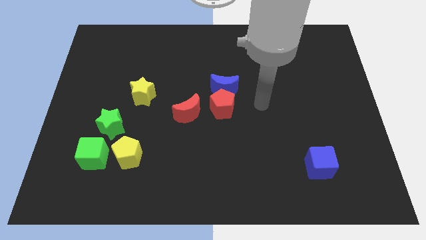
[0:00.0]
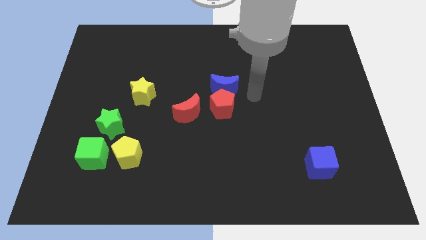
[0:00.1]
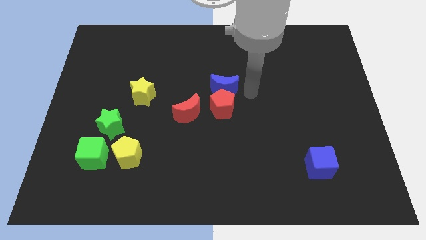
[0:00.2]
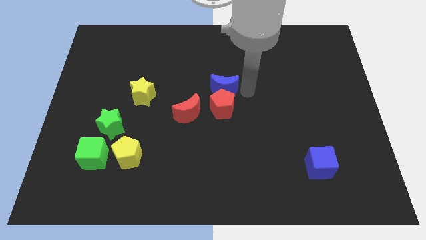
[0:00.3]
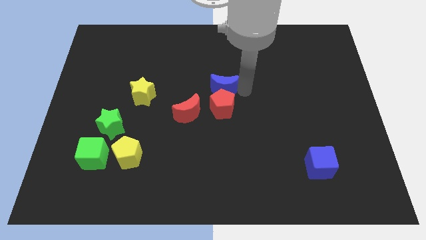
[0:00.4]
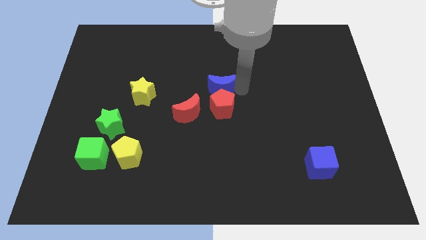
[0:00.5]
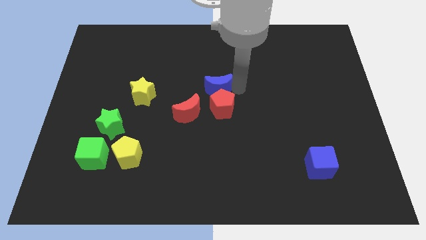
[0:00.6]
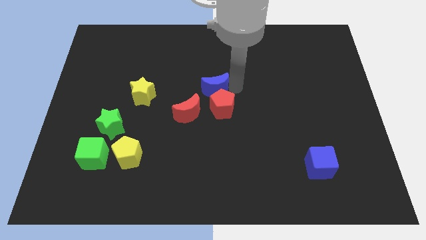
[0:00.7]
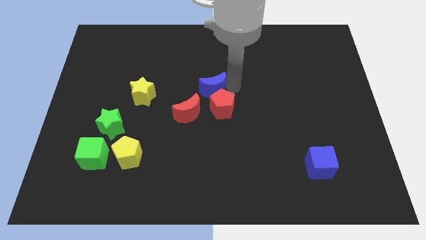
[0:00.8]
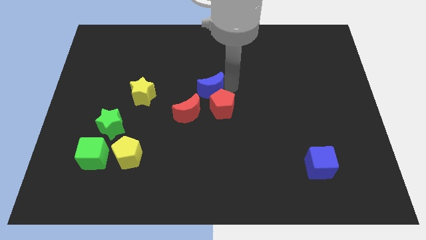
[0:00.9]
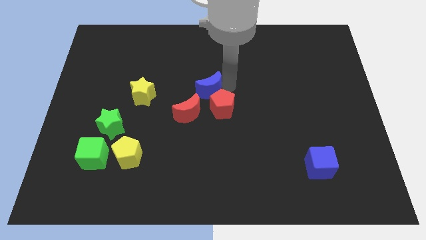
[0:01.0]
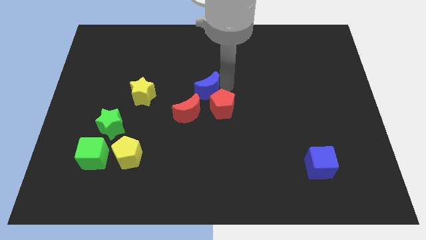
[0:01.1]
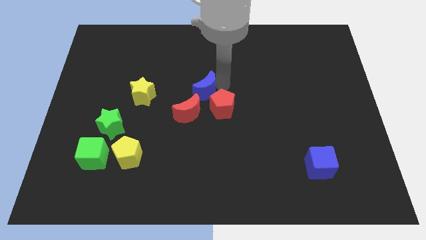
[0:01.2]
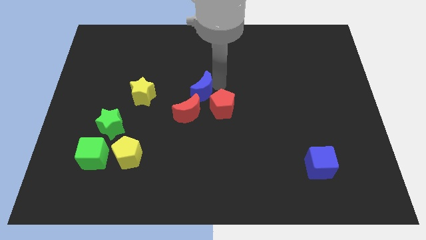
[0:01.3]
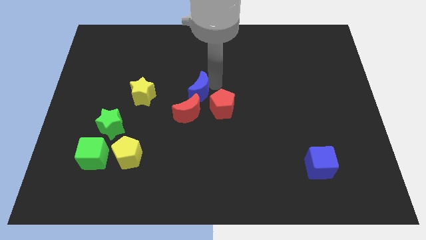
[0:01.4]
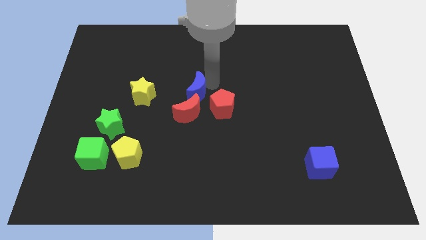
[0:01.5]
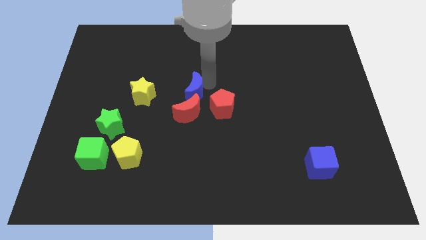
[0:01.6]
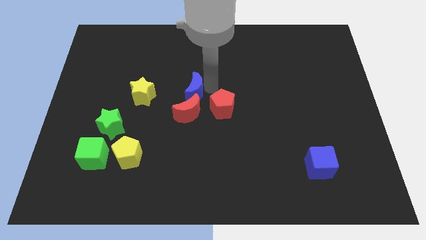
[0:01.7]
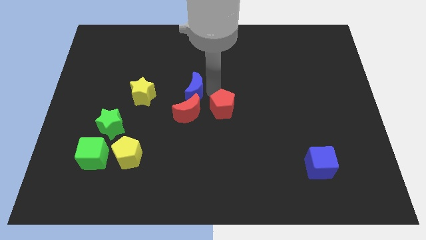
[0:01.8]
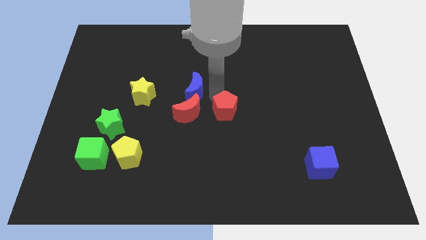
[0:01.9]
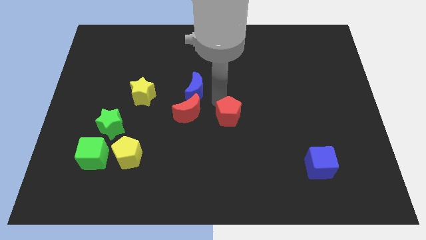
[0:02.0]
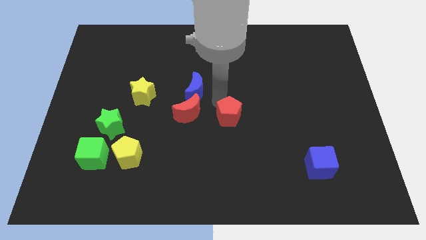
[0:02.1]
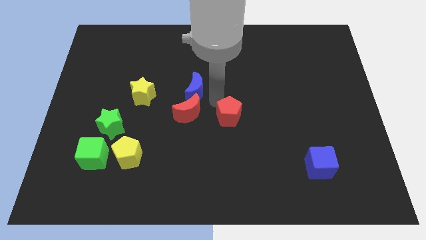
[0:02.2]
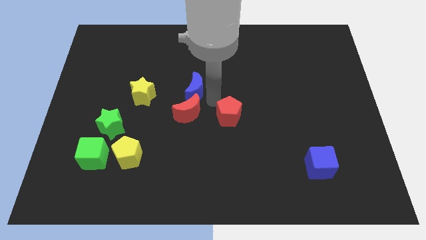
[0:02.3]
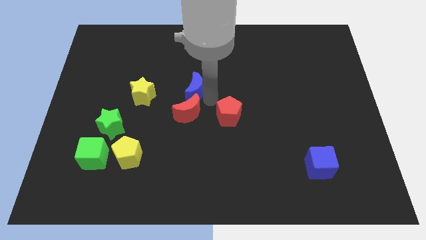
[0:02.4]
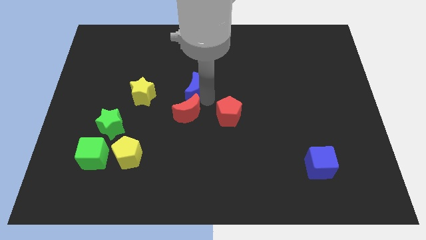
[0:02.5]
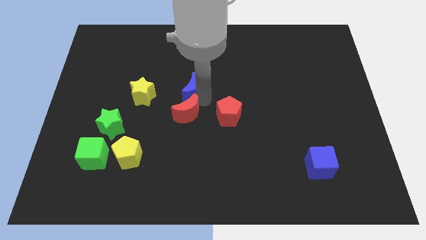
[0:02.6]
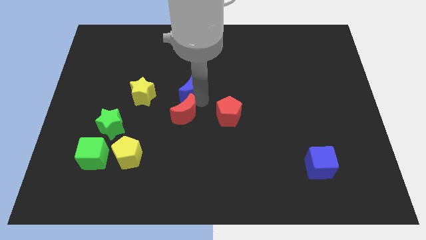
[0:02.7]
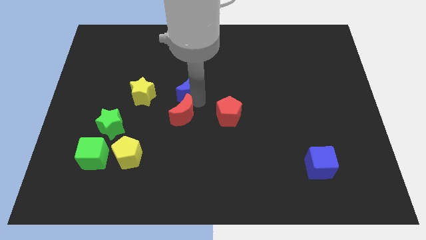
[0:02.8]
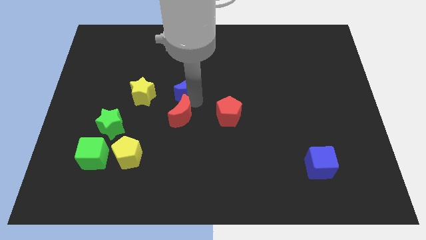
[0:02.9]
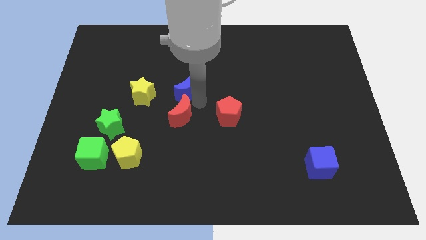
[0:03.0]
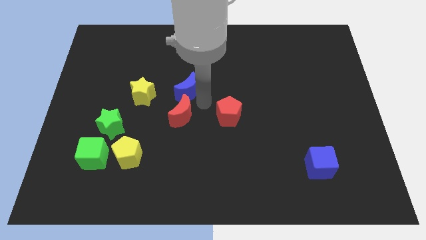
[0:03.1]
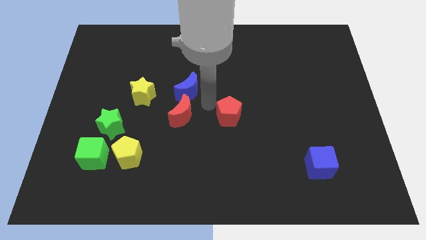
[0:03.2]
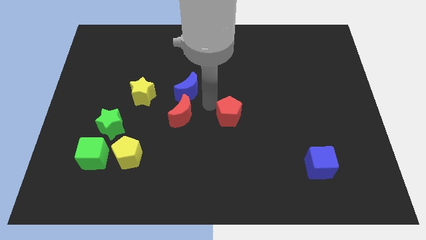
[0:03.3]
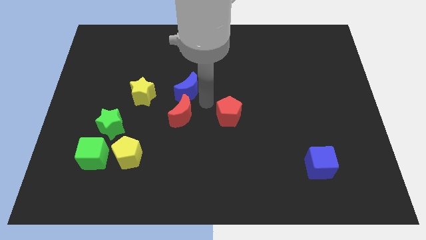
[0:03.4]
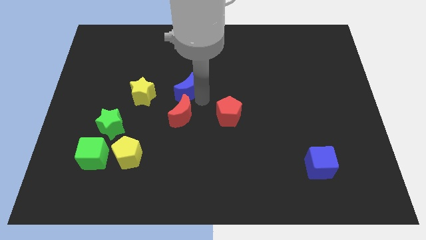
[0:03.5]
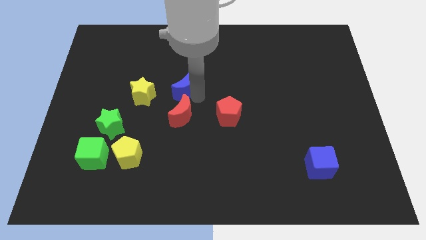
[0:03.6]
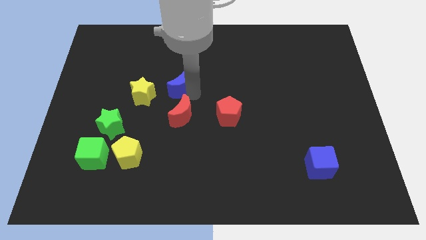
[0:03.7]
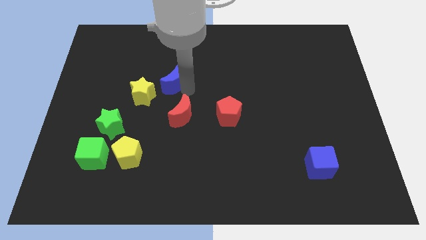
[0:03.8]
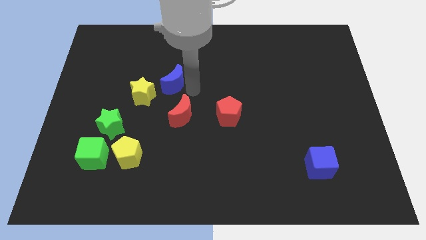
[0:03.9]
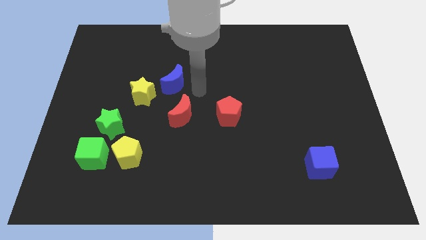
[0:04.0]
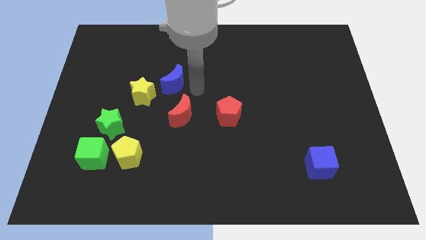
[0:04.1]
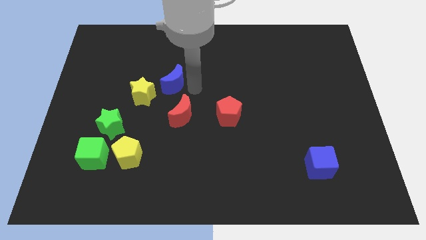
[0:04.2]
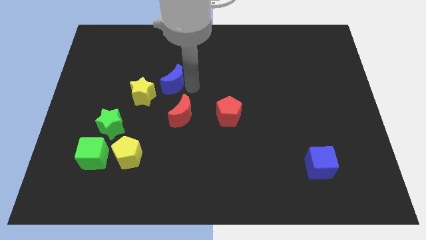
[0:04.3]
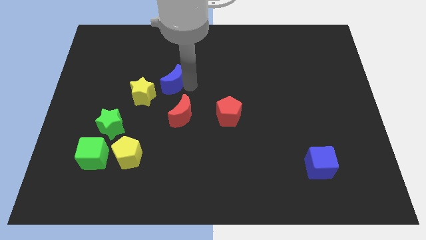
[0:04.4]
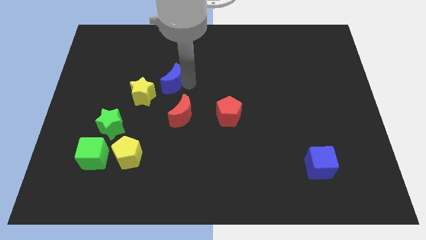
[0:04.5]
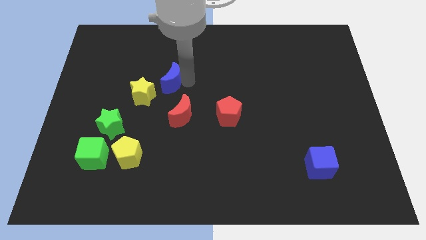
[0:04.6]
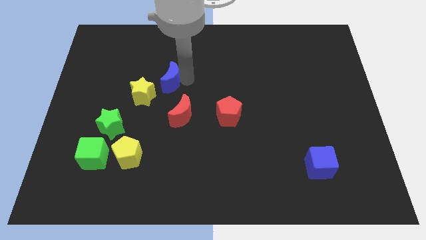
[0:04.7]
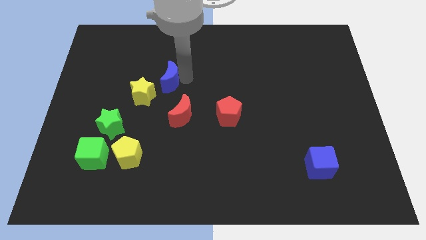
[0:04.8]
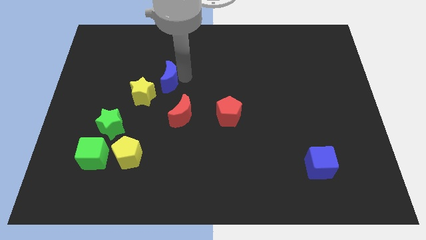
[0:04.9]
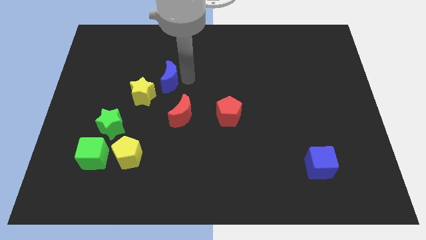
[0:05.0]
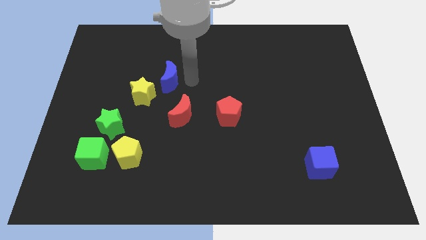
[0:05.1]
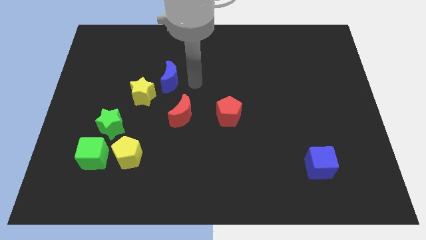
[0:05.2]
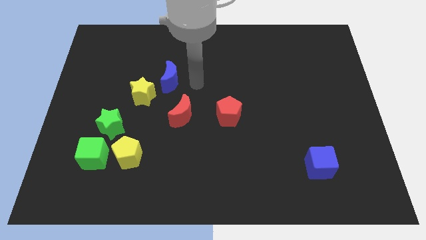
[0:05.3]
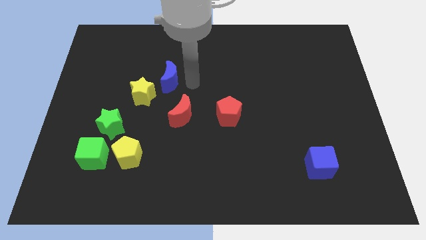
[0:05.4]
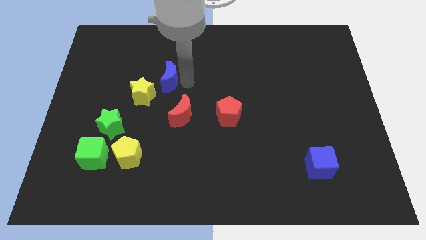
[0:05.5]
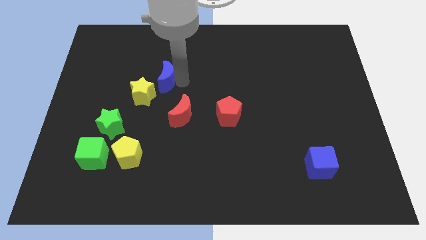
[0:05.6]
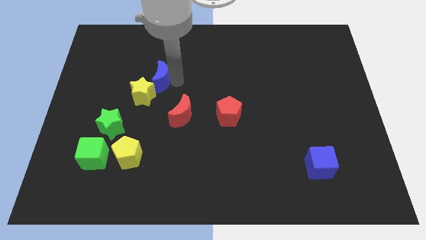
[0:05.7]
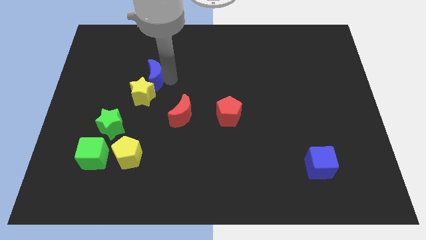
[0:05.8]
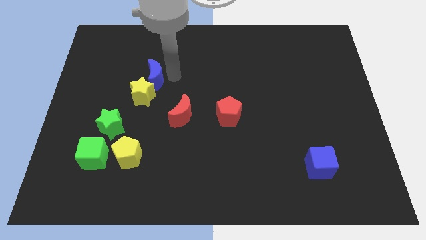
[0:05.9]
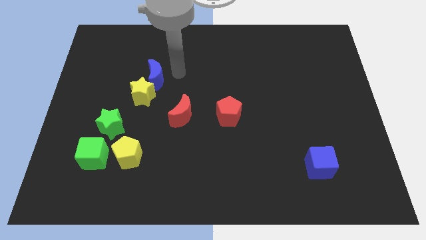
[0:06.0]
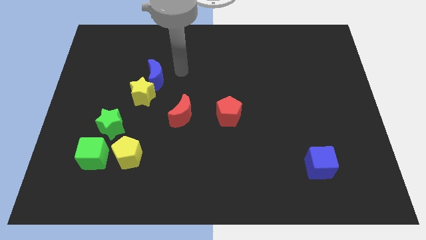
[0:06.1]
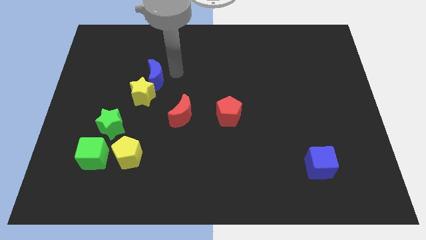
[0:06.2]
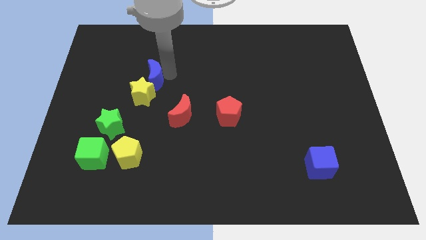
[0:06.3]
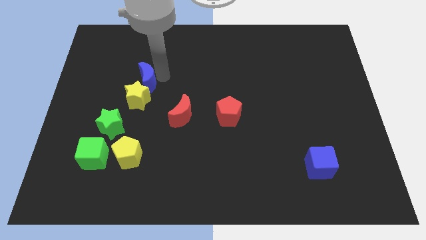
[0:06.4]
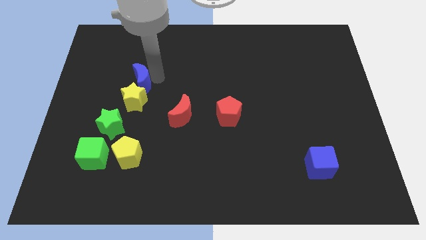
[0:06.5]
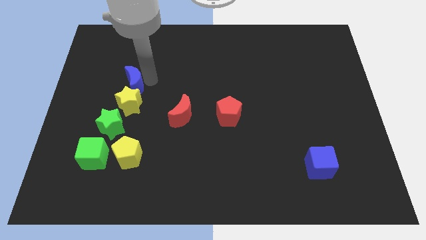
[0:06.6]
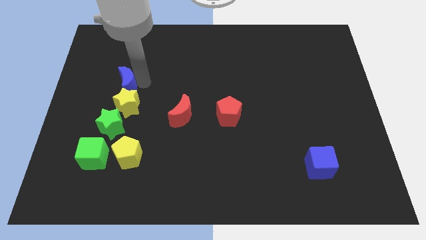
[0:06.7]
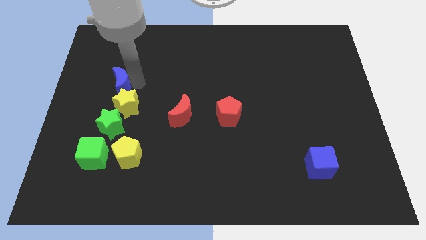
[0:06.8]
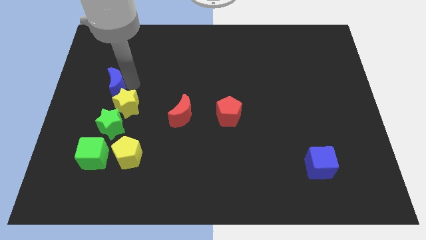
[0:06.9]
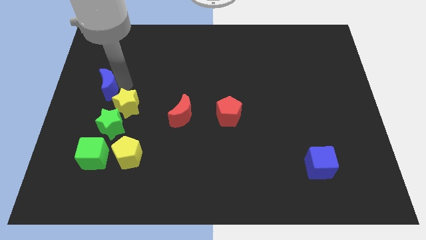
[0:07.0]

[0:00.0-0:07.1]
put the blue moon to the center left

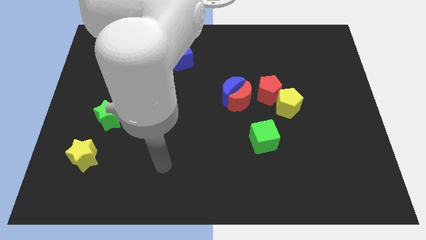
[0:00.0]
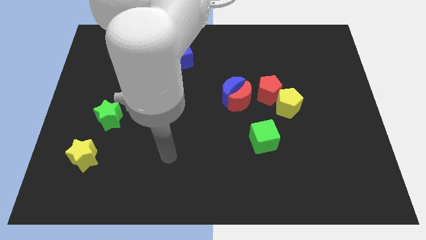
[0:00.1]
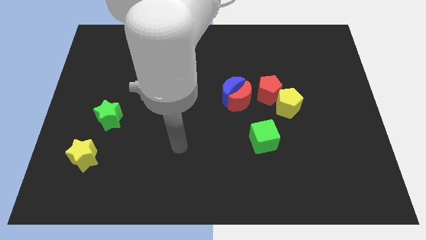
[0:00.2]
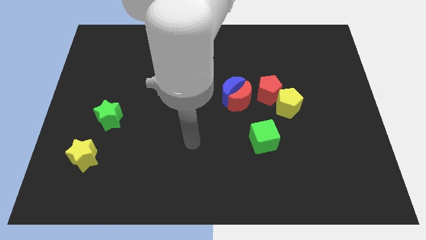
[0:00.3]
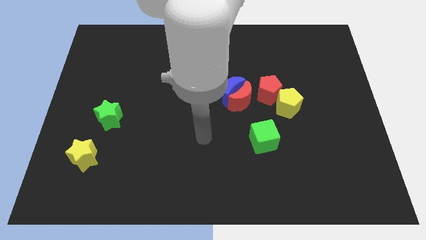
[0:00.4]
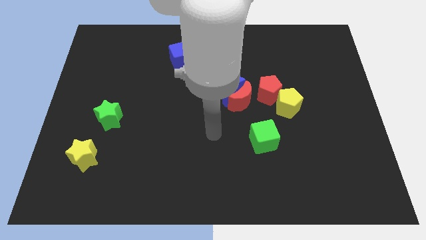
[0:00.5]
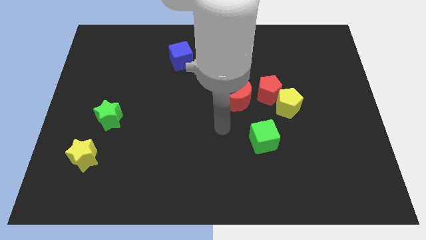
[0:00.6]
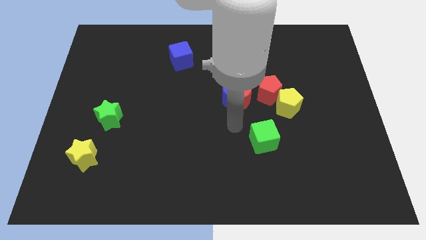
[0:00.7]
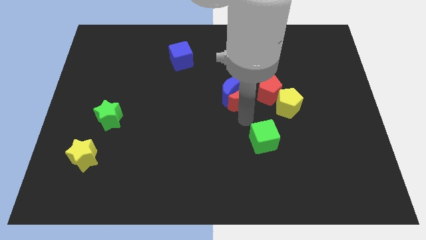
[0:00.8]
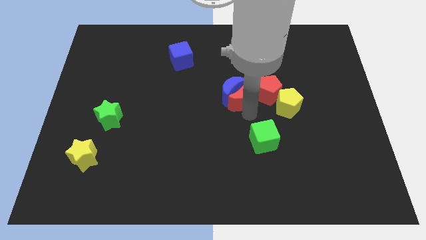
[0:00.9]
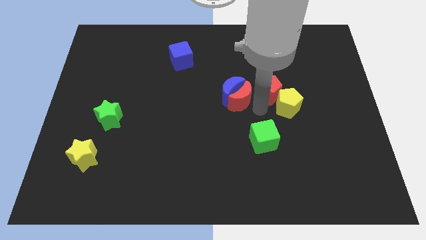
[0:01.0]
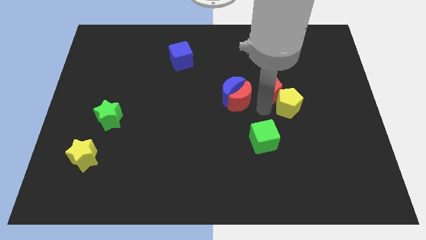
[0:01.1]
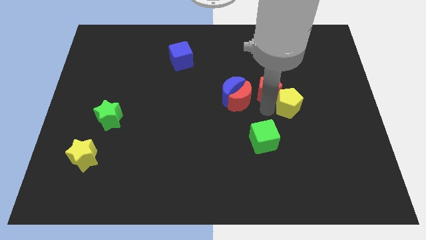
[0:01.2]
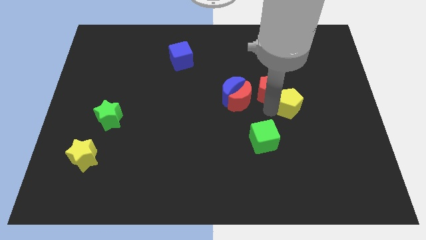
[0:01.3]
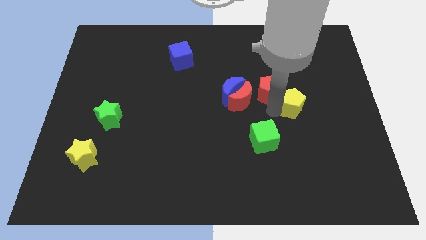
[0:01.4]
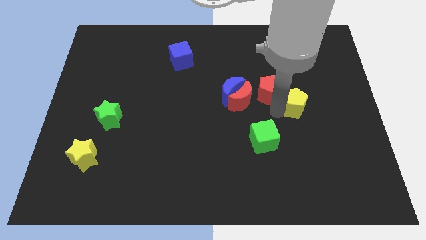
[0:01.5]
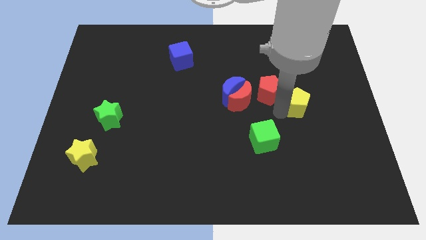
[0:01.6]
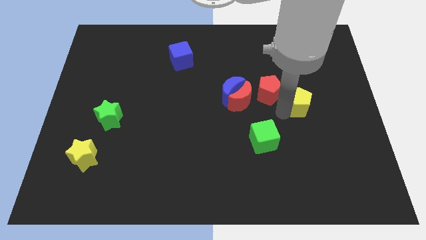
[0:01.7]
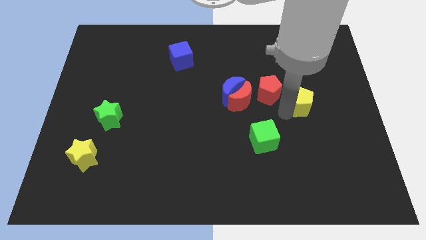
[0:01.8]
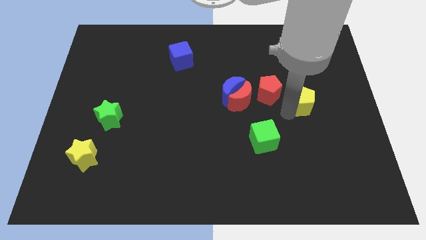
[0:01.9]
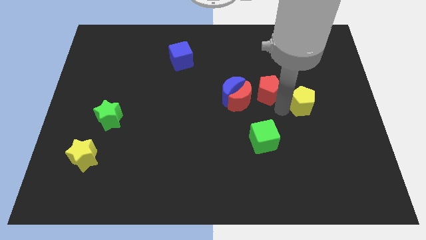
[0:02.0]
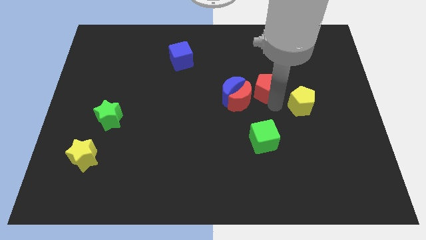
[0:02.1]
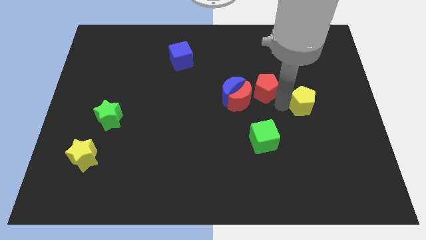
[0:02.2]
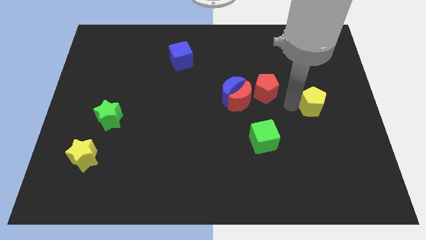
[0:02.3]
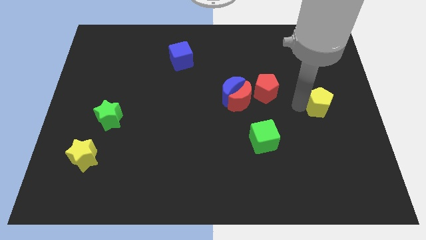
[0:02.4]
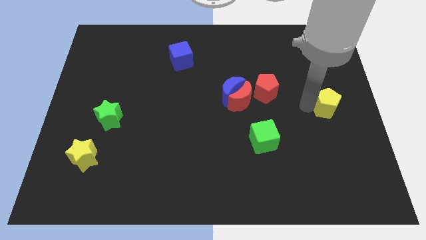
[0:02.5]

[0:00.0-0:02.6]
move the yellow pentagon to the right side of the board
